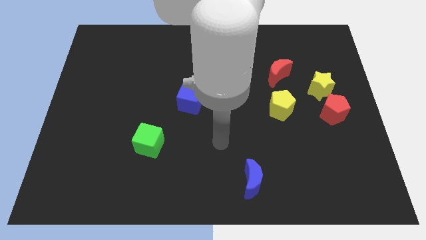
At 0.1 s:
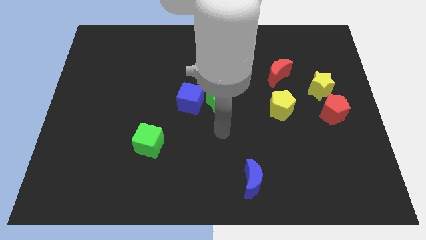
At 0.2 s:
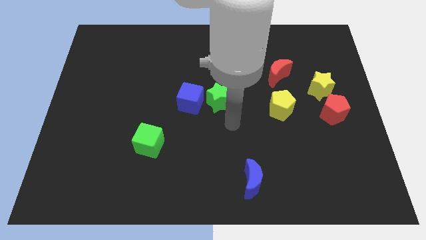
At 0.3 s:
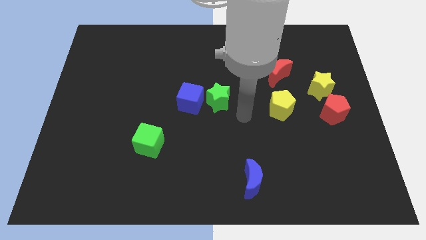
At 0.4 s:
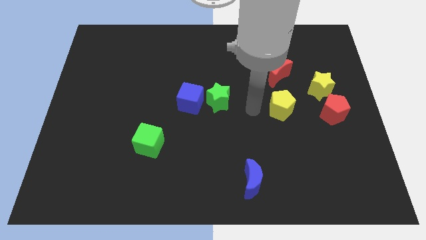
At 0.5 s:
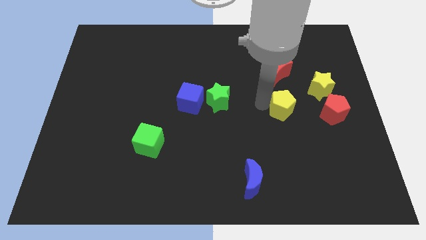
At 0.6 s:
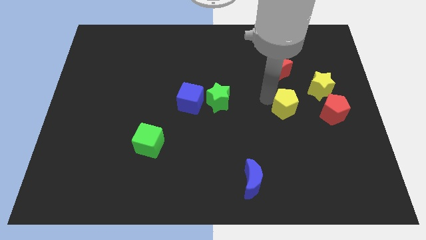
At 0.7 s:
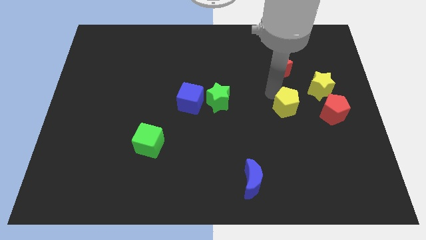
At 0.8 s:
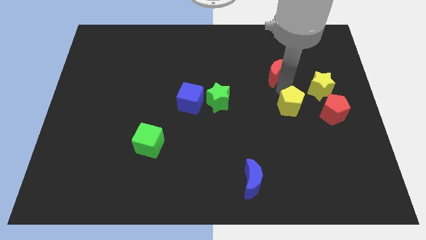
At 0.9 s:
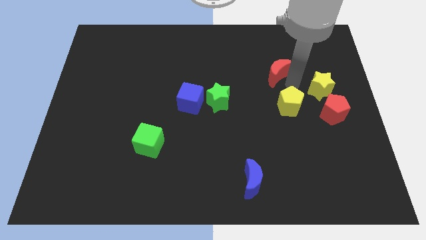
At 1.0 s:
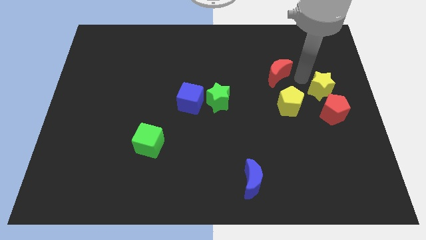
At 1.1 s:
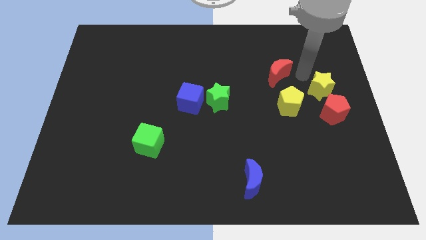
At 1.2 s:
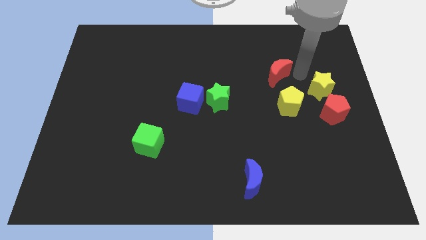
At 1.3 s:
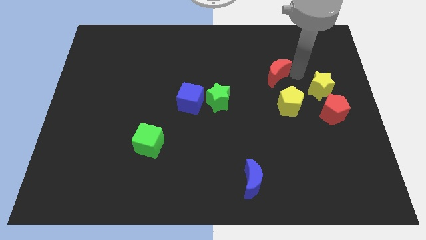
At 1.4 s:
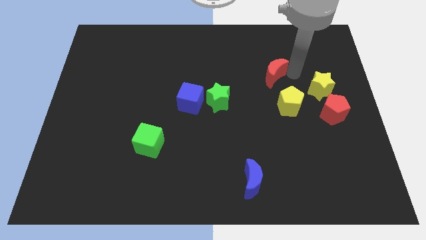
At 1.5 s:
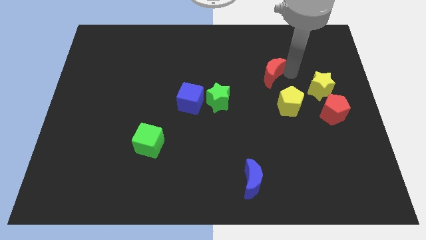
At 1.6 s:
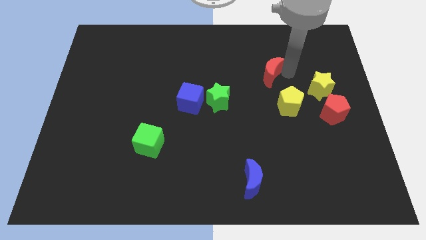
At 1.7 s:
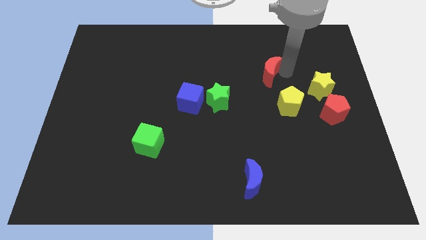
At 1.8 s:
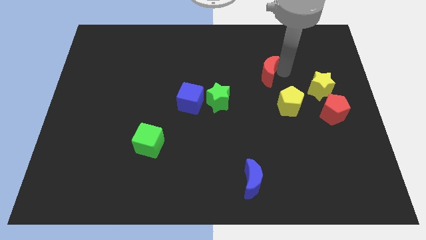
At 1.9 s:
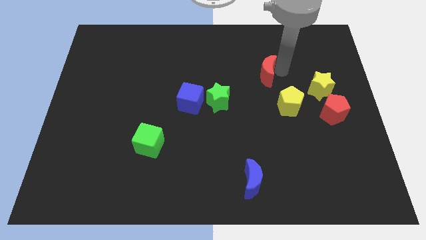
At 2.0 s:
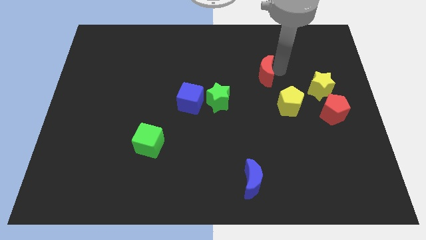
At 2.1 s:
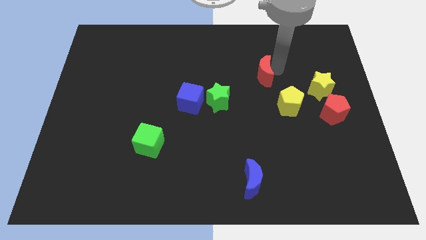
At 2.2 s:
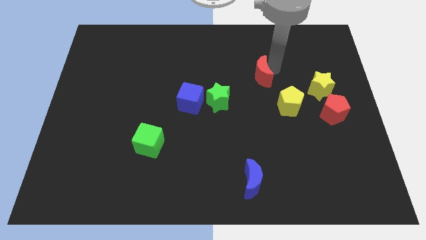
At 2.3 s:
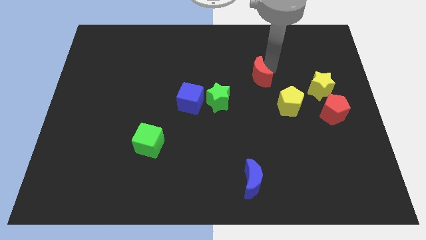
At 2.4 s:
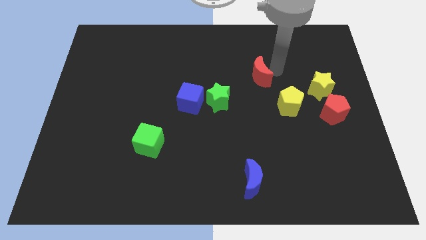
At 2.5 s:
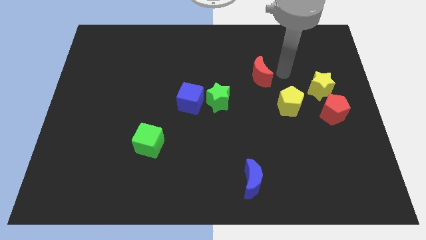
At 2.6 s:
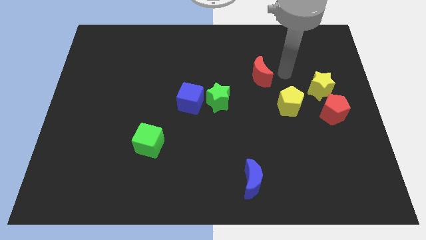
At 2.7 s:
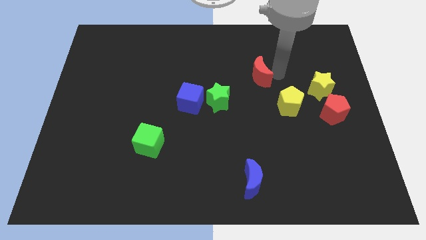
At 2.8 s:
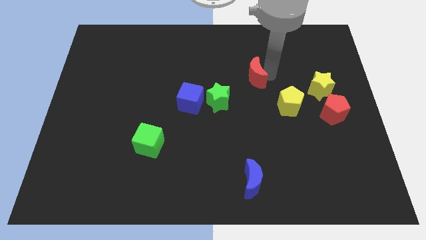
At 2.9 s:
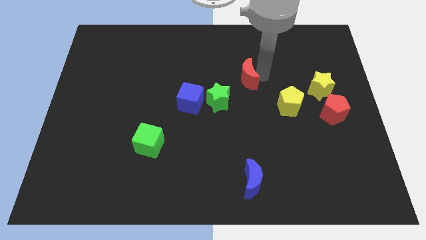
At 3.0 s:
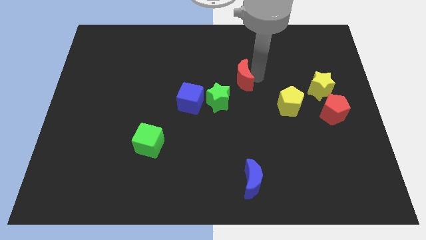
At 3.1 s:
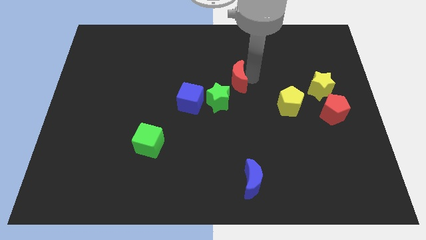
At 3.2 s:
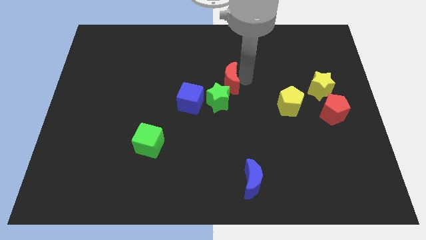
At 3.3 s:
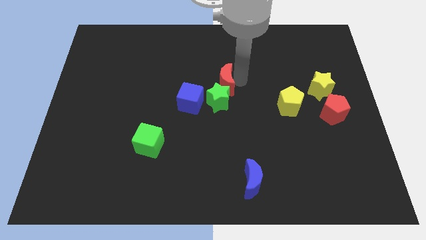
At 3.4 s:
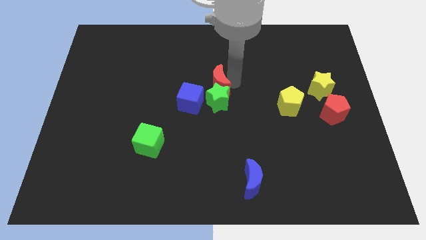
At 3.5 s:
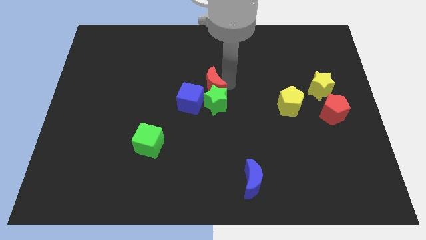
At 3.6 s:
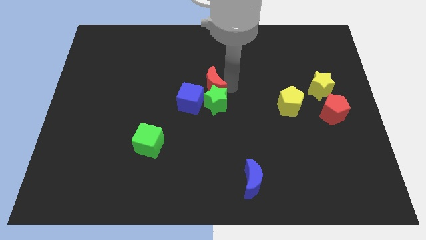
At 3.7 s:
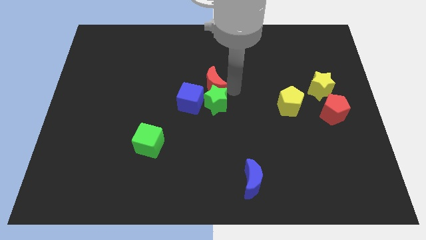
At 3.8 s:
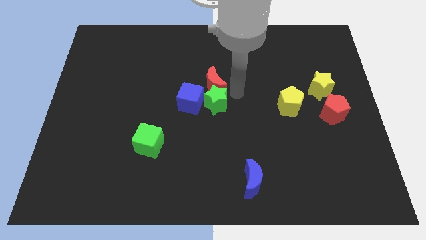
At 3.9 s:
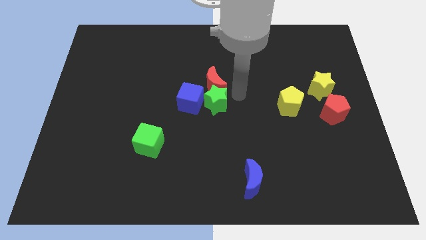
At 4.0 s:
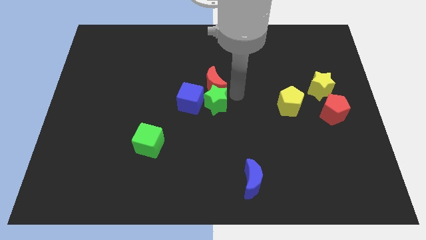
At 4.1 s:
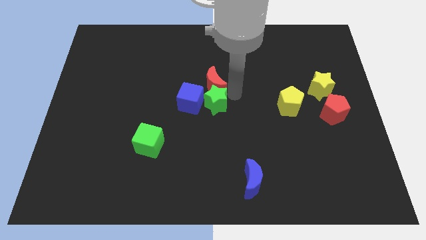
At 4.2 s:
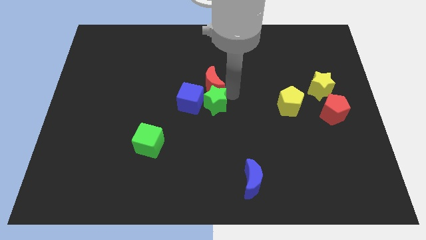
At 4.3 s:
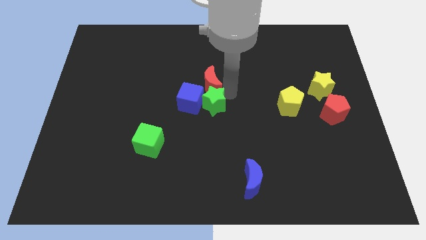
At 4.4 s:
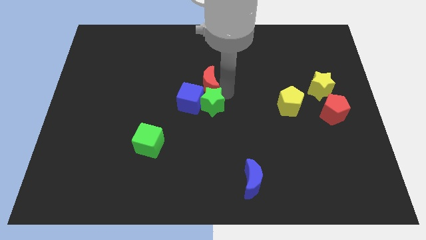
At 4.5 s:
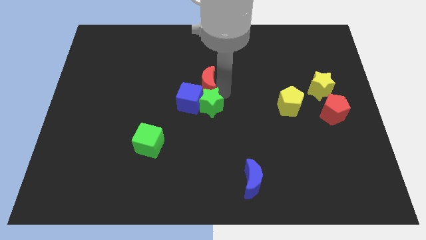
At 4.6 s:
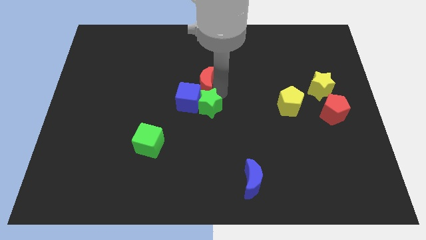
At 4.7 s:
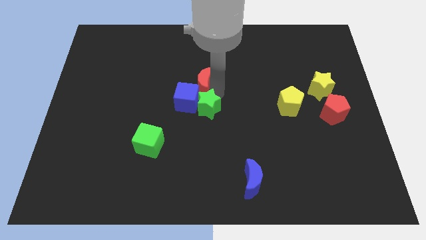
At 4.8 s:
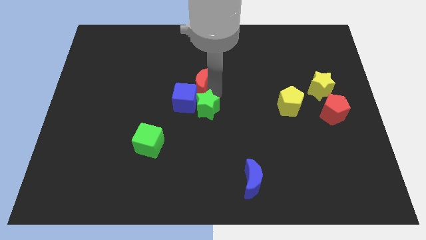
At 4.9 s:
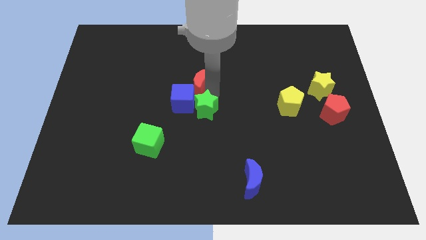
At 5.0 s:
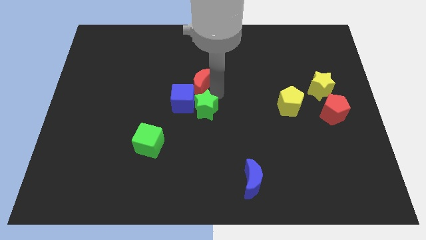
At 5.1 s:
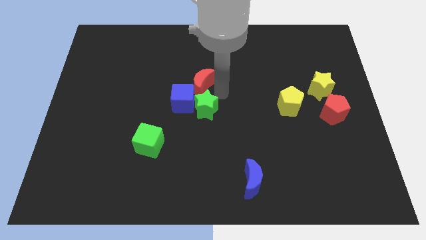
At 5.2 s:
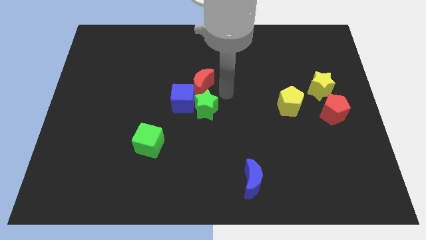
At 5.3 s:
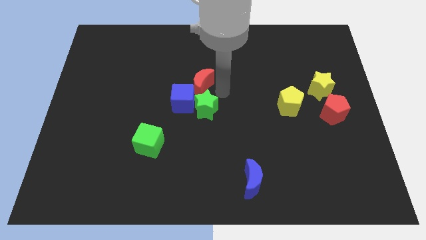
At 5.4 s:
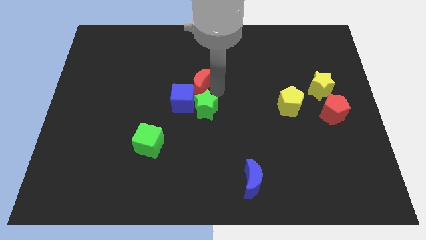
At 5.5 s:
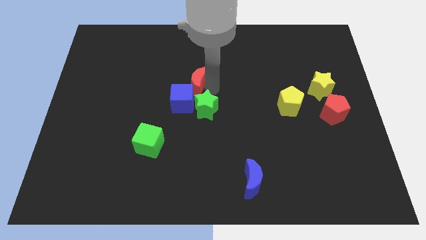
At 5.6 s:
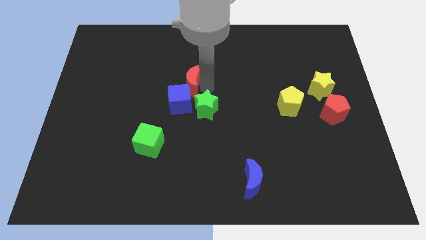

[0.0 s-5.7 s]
move the red moon to the left

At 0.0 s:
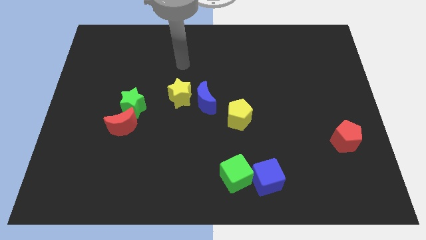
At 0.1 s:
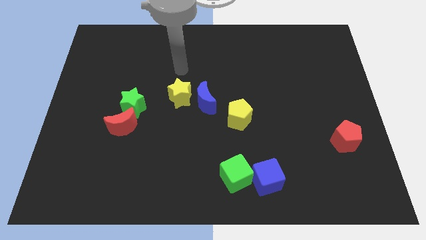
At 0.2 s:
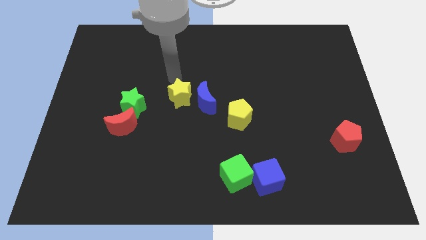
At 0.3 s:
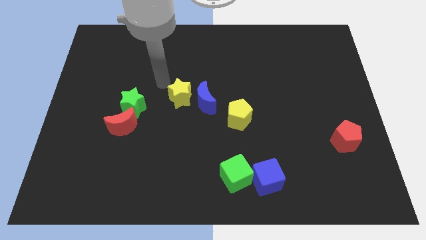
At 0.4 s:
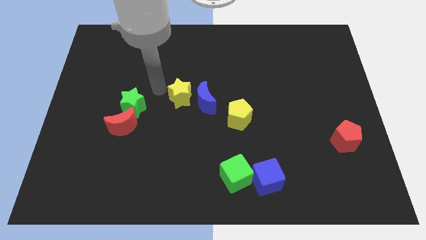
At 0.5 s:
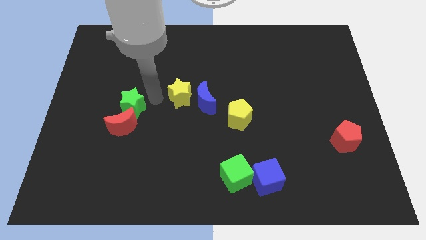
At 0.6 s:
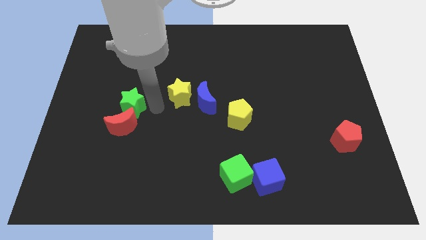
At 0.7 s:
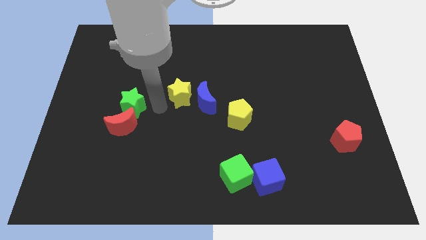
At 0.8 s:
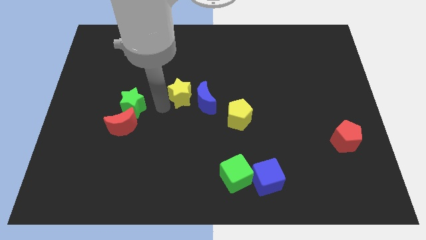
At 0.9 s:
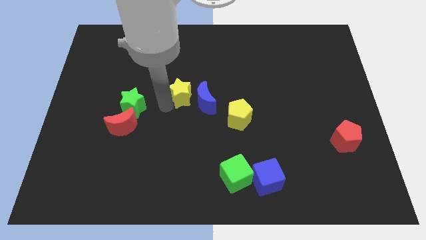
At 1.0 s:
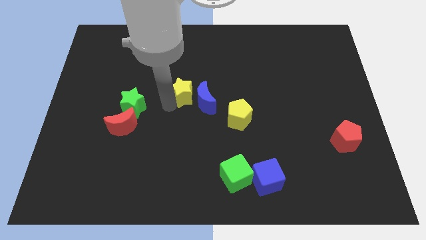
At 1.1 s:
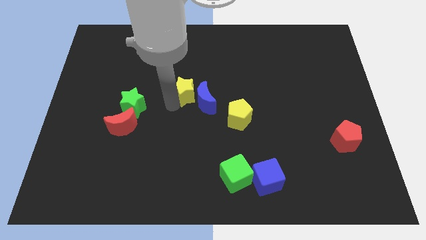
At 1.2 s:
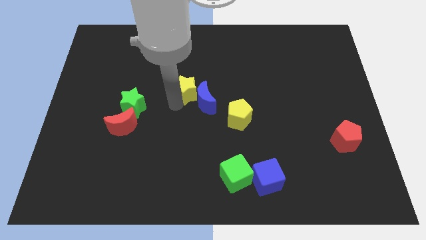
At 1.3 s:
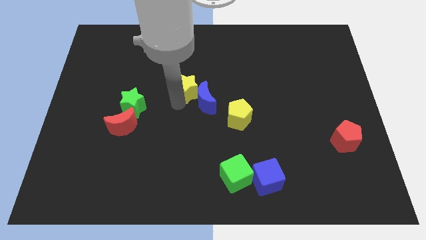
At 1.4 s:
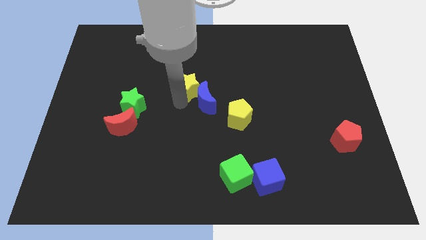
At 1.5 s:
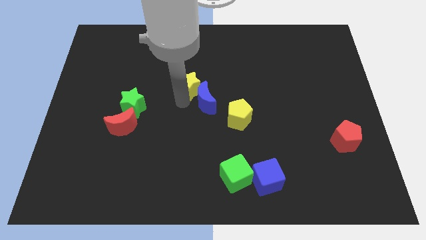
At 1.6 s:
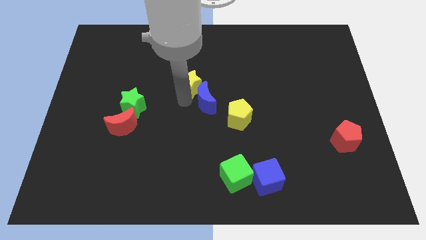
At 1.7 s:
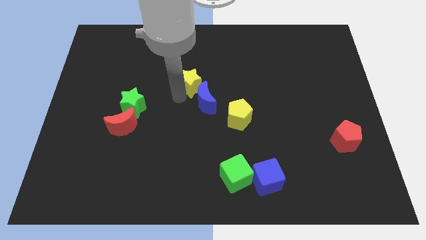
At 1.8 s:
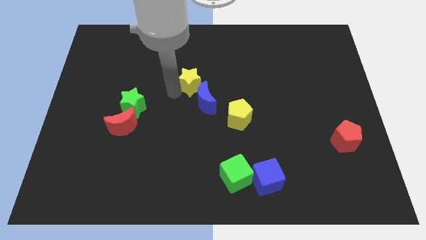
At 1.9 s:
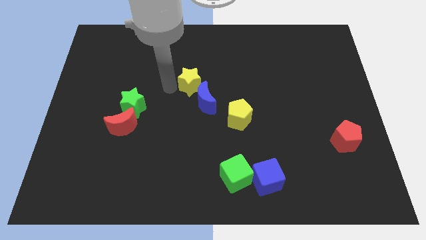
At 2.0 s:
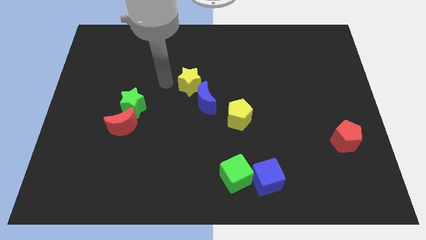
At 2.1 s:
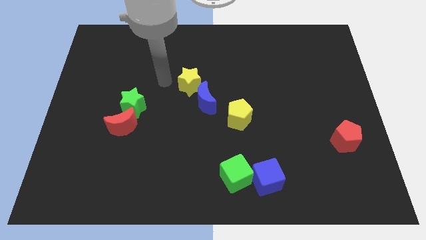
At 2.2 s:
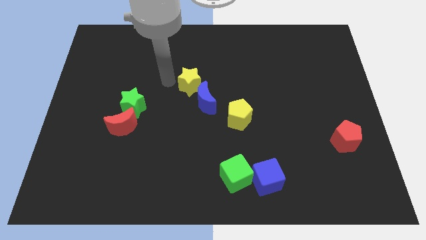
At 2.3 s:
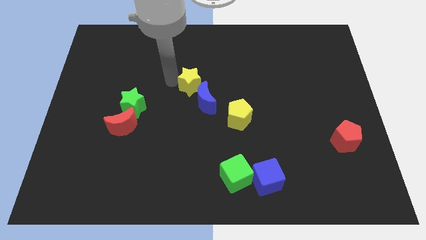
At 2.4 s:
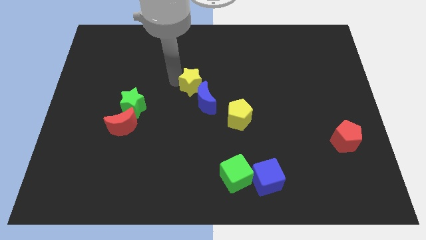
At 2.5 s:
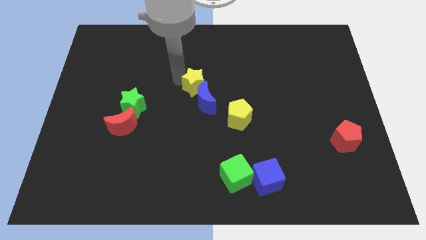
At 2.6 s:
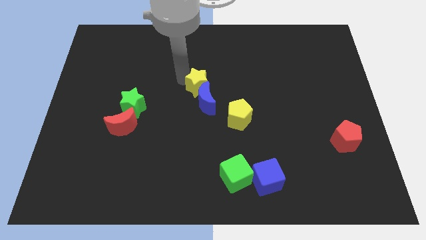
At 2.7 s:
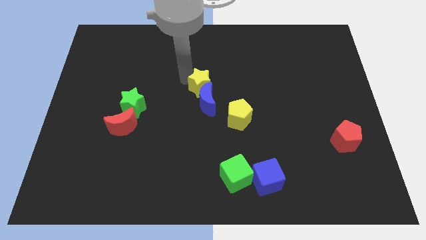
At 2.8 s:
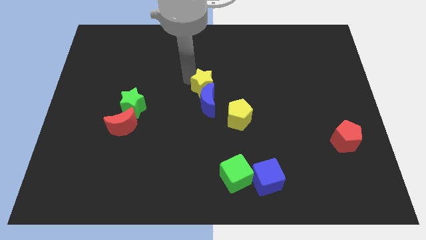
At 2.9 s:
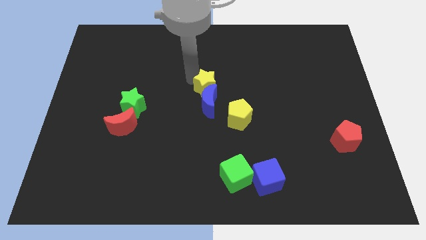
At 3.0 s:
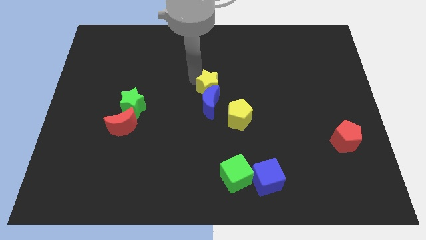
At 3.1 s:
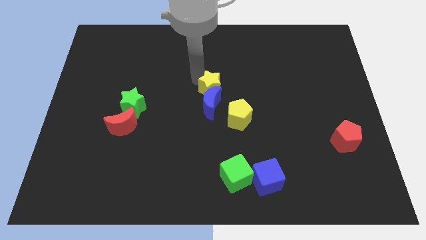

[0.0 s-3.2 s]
move the yellow star a little bit right
